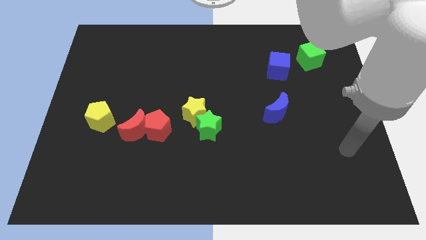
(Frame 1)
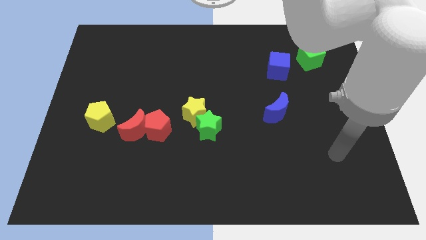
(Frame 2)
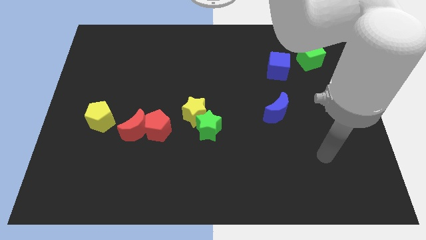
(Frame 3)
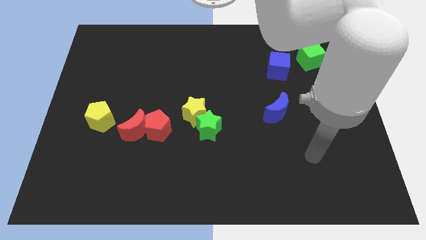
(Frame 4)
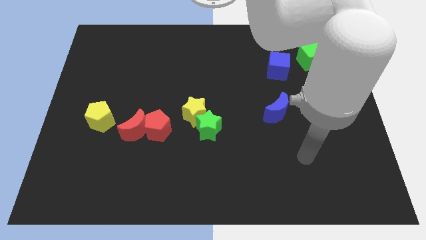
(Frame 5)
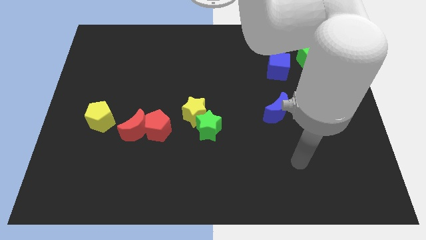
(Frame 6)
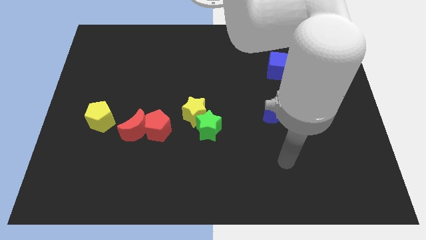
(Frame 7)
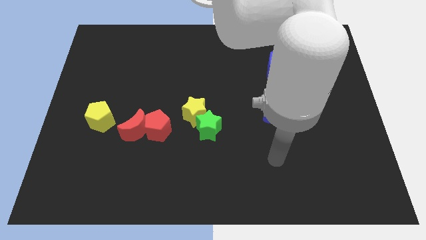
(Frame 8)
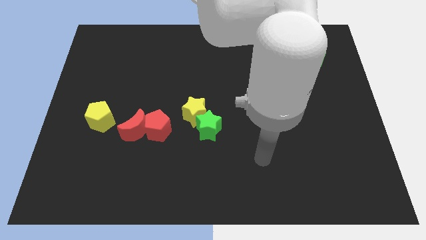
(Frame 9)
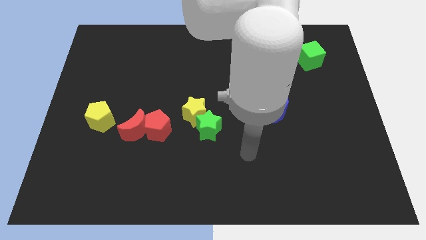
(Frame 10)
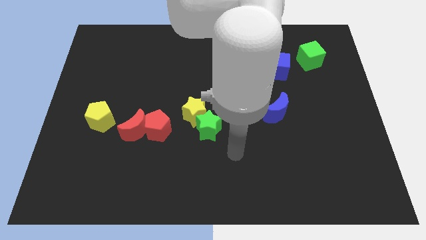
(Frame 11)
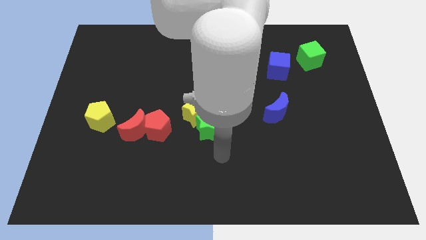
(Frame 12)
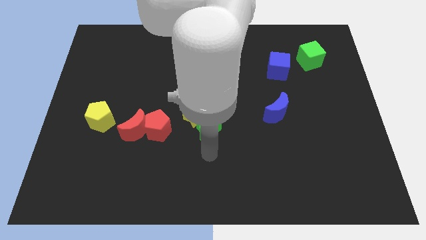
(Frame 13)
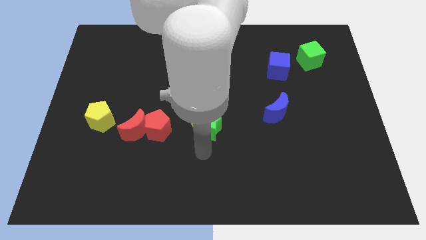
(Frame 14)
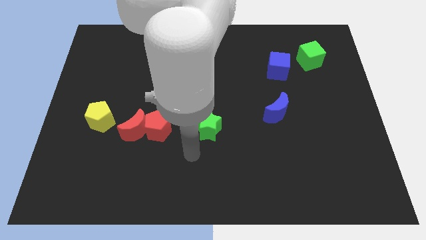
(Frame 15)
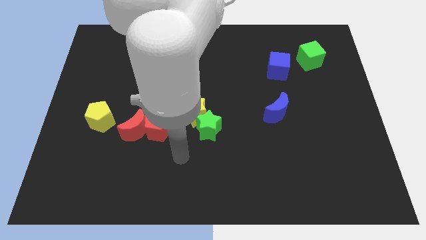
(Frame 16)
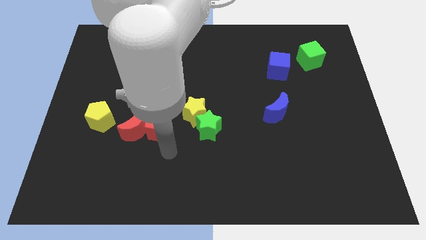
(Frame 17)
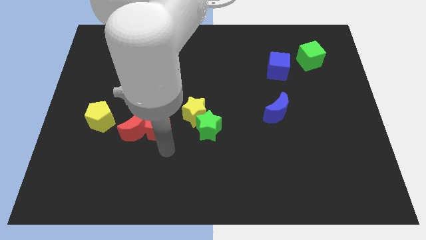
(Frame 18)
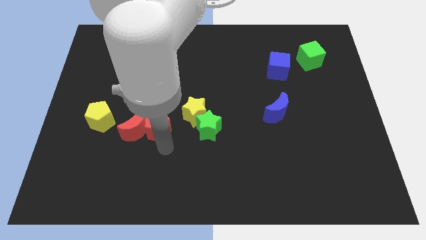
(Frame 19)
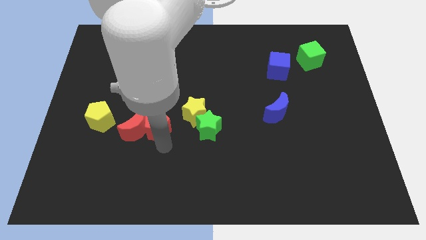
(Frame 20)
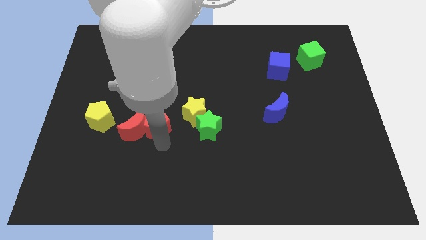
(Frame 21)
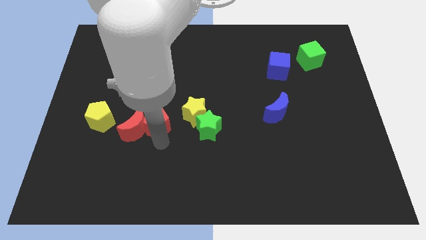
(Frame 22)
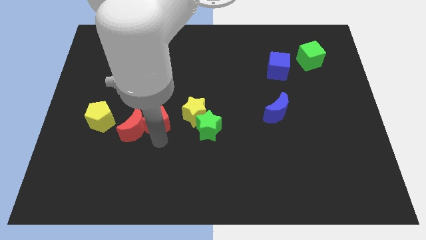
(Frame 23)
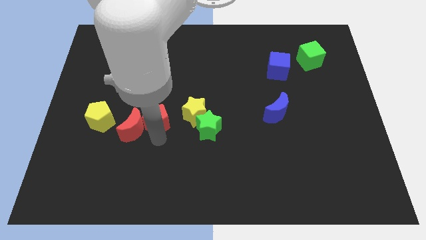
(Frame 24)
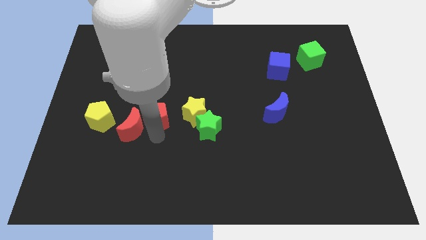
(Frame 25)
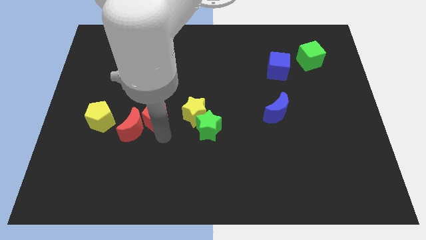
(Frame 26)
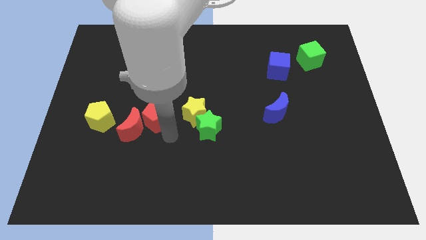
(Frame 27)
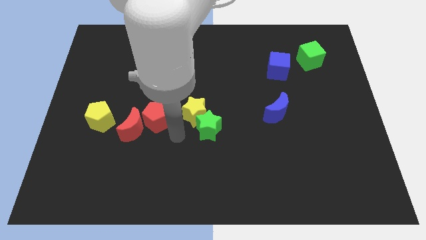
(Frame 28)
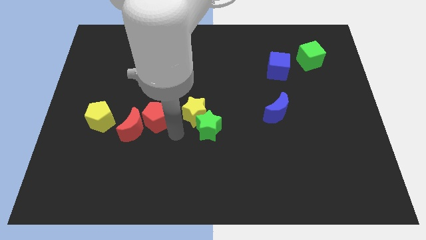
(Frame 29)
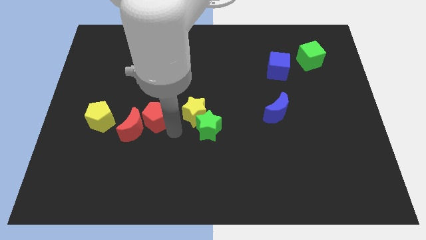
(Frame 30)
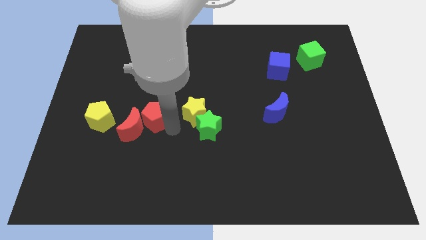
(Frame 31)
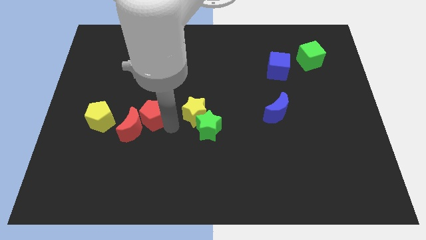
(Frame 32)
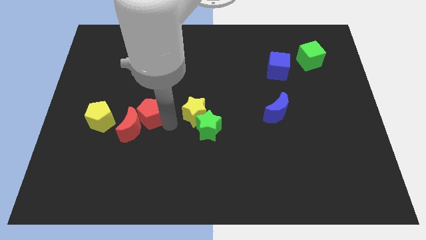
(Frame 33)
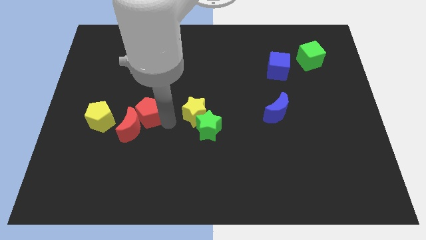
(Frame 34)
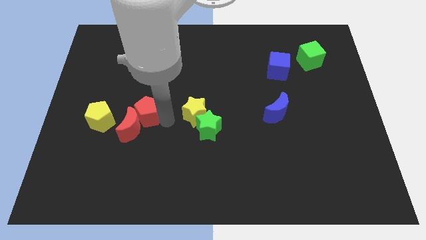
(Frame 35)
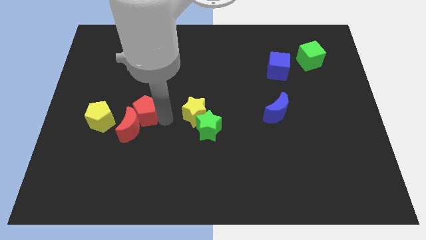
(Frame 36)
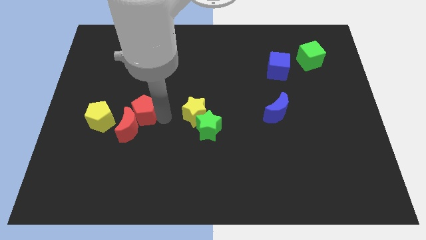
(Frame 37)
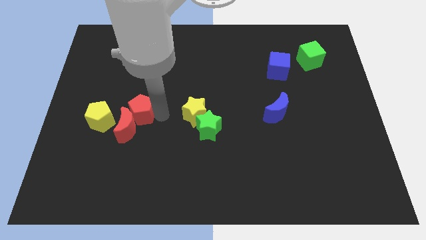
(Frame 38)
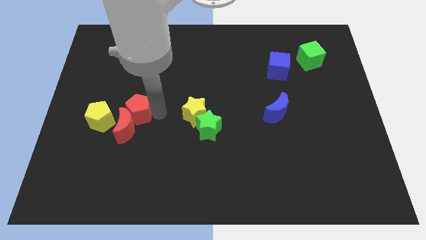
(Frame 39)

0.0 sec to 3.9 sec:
slightly slide the red pentagon up and to the left diagonally

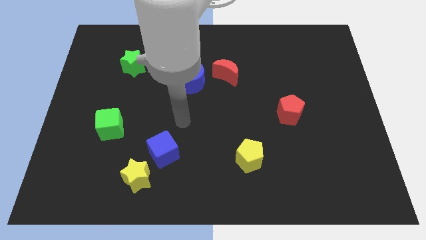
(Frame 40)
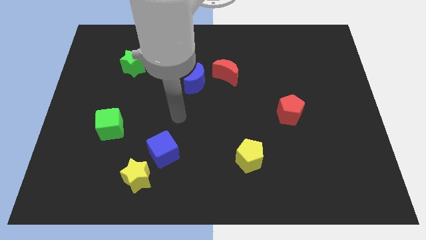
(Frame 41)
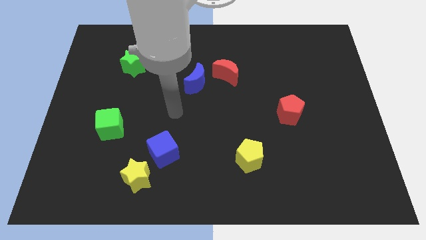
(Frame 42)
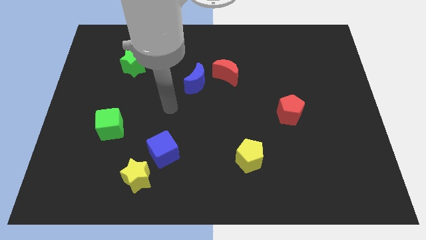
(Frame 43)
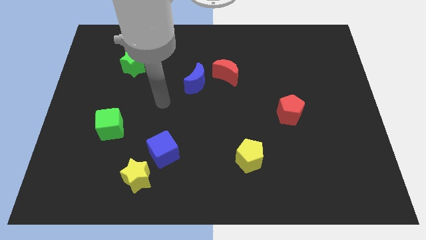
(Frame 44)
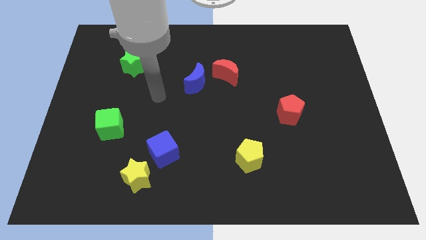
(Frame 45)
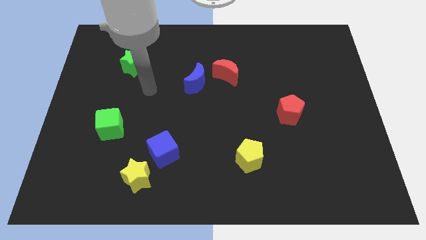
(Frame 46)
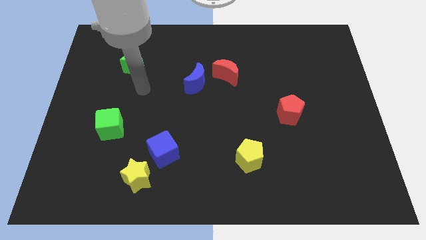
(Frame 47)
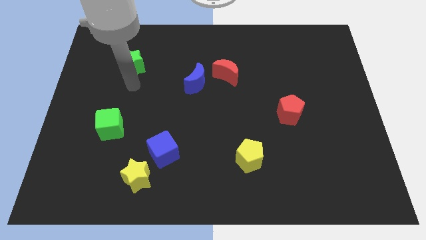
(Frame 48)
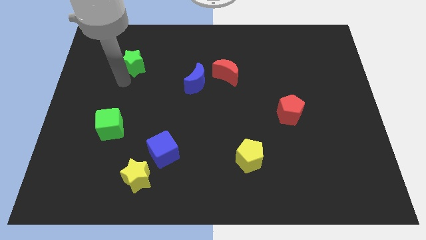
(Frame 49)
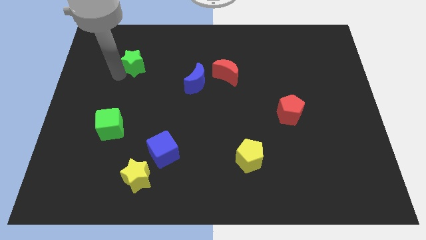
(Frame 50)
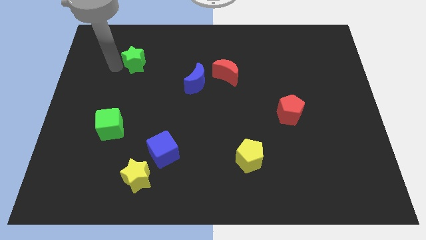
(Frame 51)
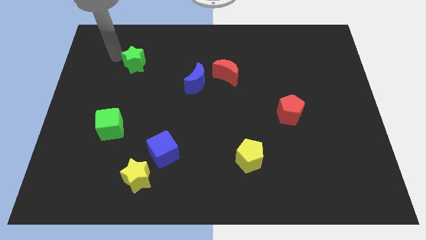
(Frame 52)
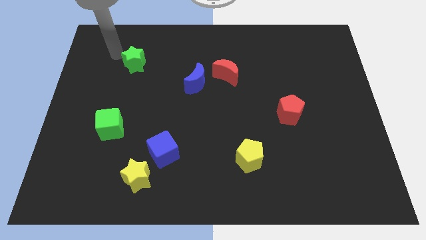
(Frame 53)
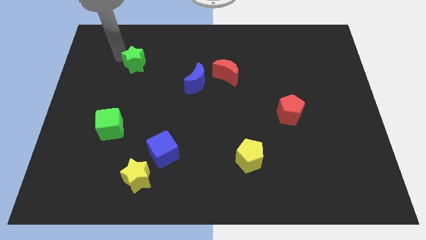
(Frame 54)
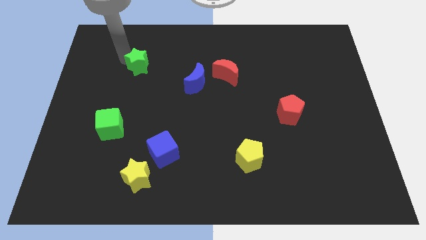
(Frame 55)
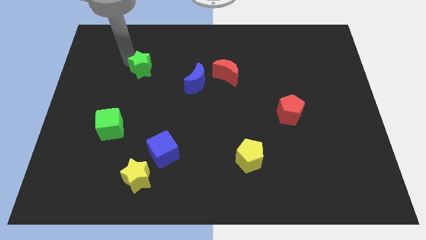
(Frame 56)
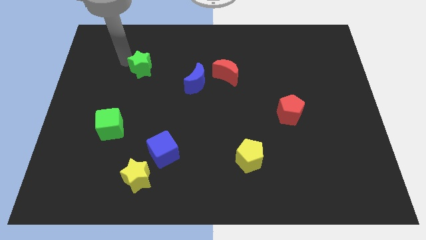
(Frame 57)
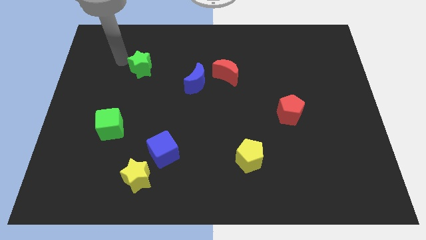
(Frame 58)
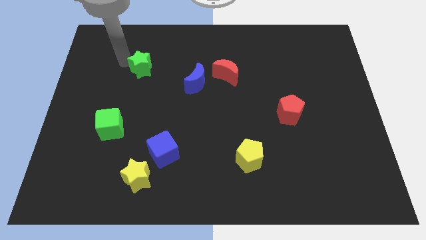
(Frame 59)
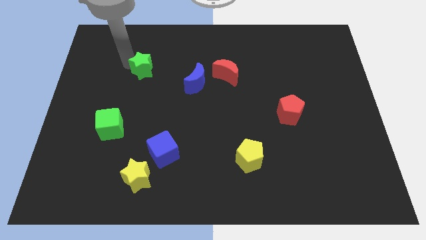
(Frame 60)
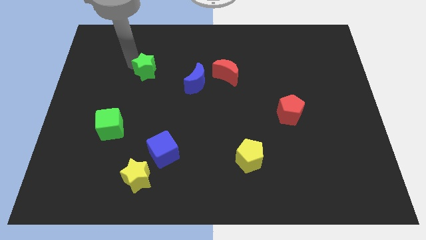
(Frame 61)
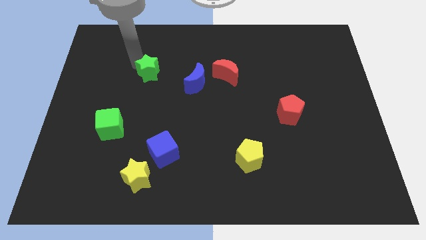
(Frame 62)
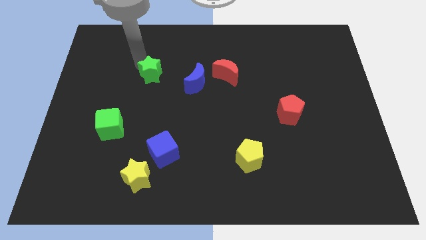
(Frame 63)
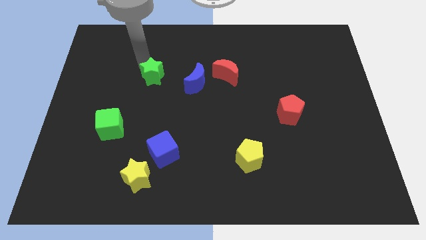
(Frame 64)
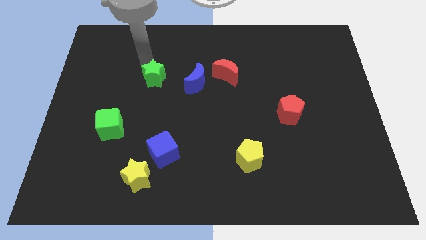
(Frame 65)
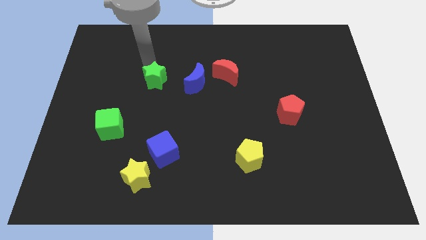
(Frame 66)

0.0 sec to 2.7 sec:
slightly push the green star downwards and right

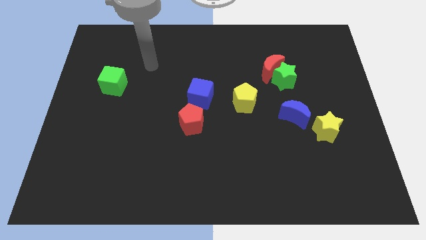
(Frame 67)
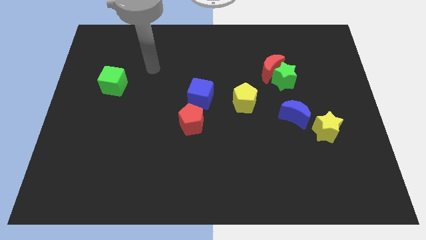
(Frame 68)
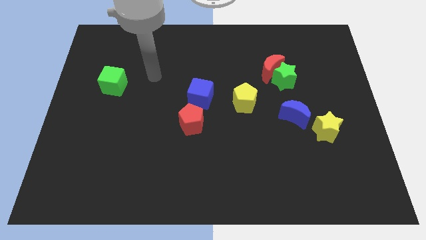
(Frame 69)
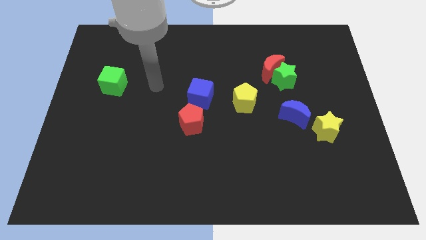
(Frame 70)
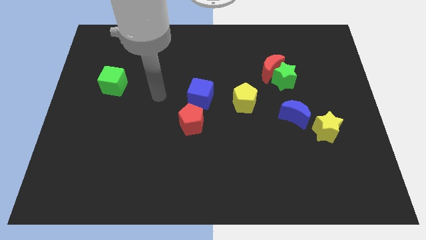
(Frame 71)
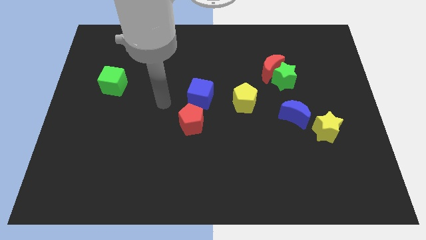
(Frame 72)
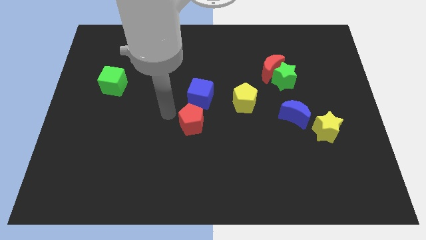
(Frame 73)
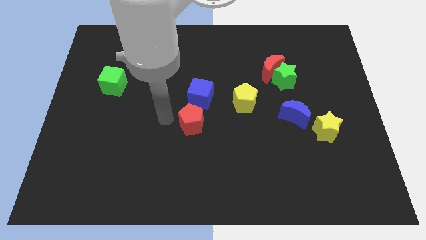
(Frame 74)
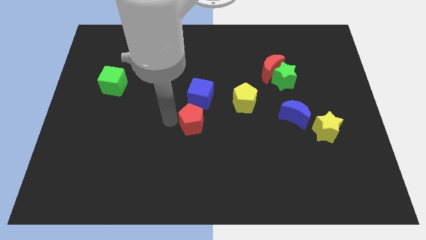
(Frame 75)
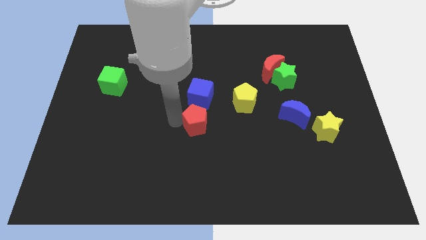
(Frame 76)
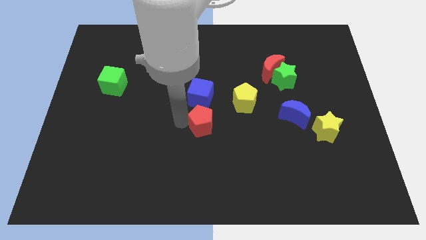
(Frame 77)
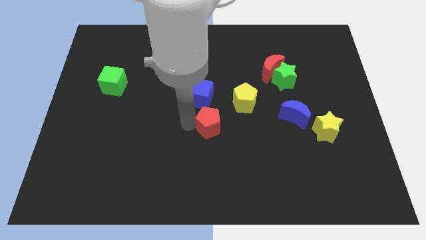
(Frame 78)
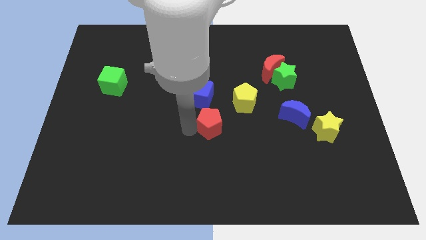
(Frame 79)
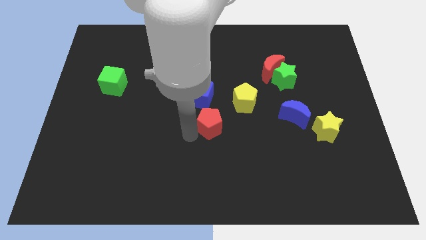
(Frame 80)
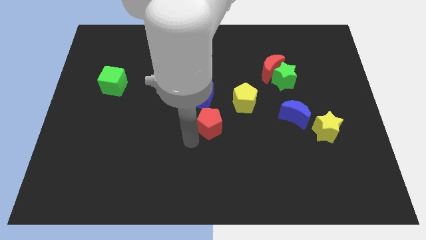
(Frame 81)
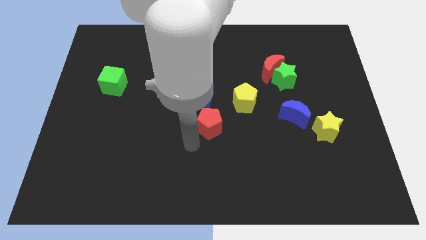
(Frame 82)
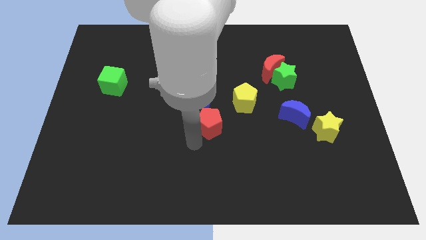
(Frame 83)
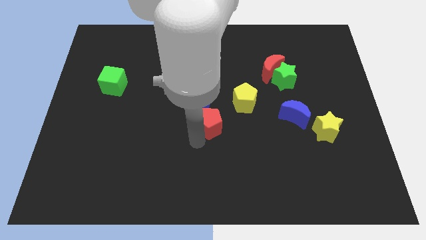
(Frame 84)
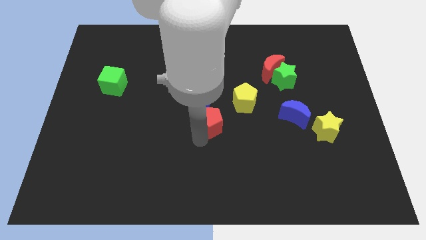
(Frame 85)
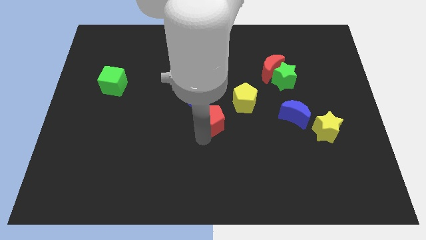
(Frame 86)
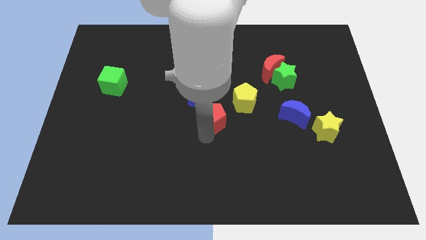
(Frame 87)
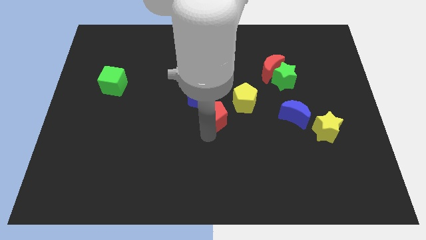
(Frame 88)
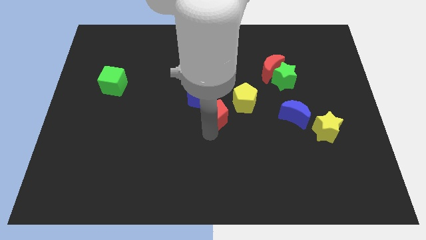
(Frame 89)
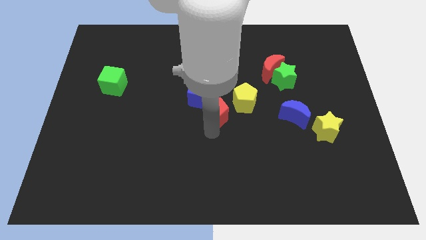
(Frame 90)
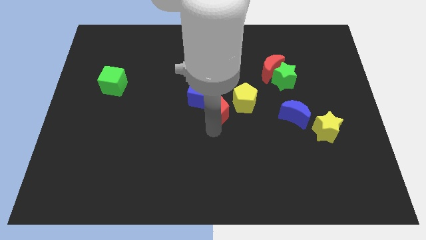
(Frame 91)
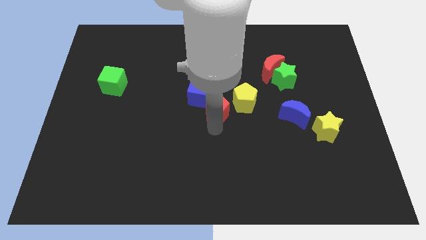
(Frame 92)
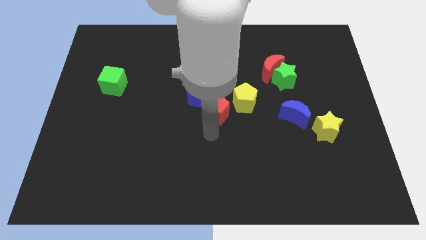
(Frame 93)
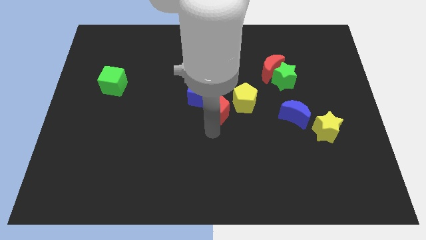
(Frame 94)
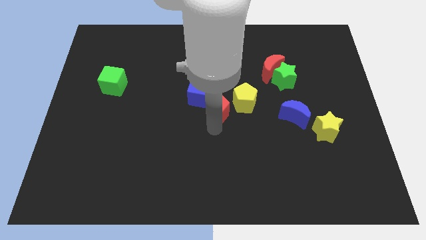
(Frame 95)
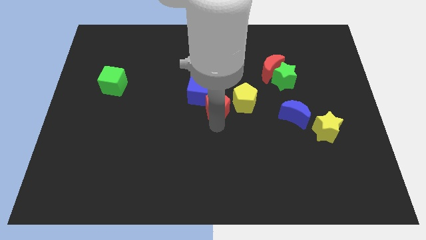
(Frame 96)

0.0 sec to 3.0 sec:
push the red pentagon a bit diagonally upwards and right
